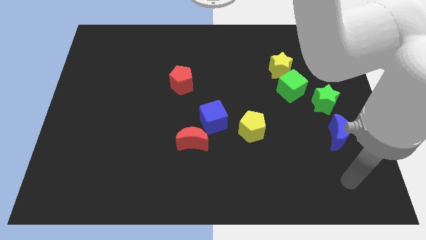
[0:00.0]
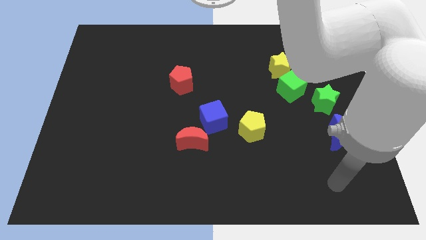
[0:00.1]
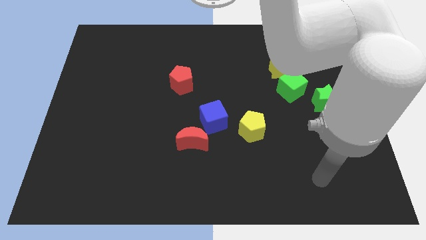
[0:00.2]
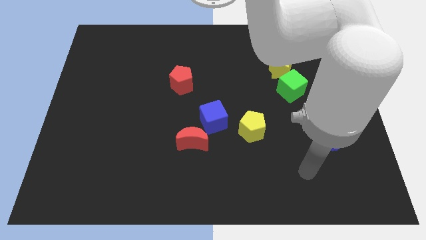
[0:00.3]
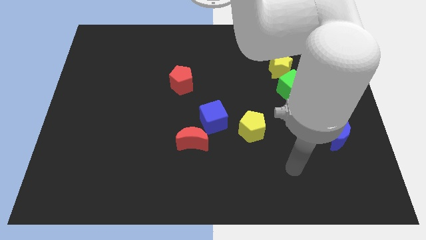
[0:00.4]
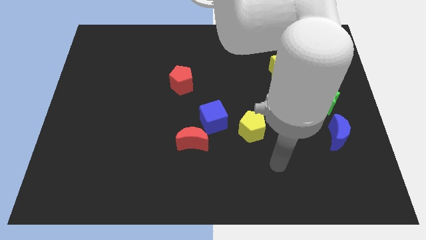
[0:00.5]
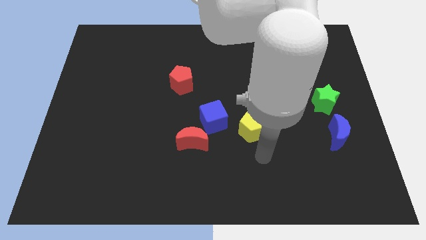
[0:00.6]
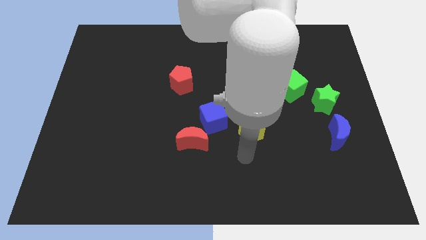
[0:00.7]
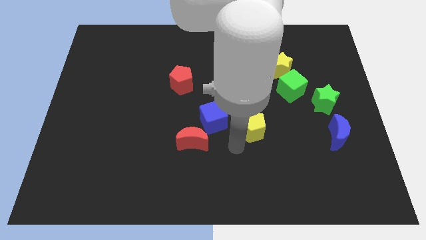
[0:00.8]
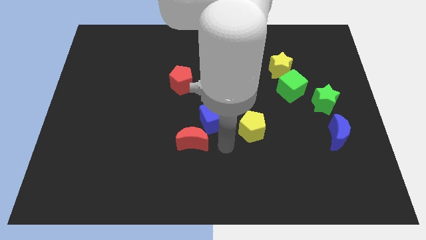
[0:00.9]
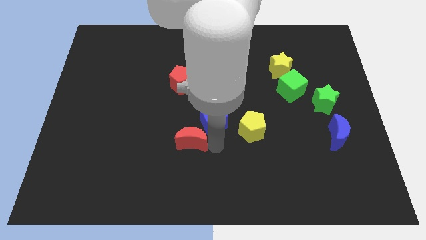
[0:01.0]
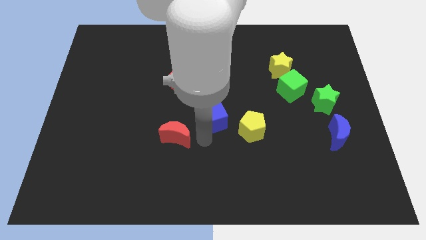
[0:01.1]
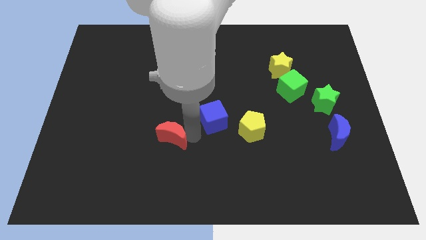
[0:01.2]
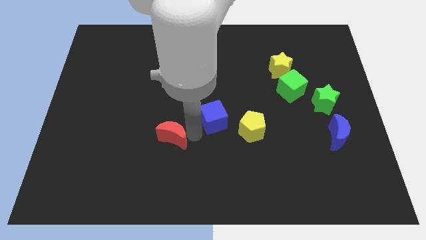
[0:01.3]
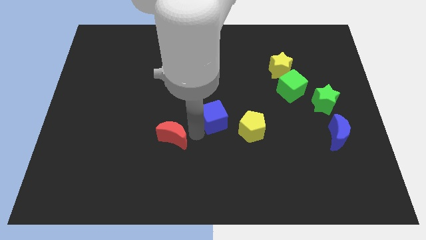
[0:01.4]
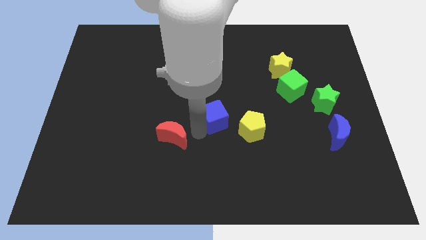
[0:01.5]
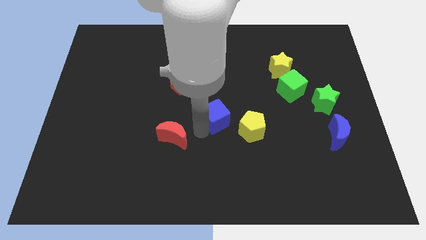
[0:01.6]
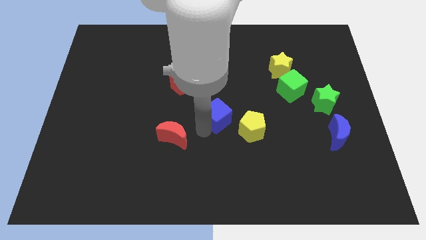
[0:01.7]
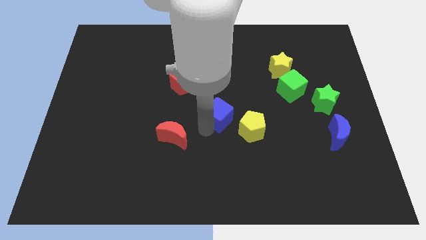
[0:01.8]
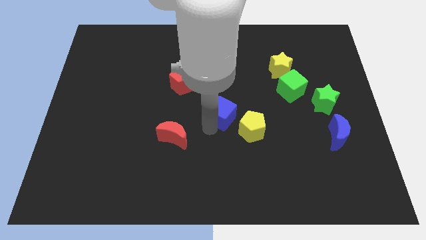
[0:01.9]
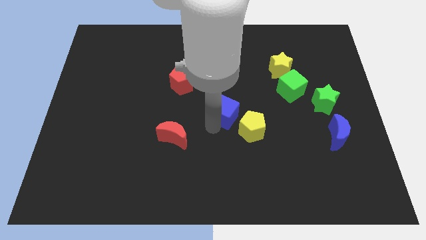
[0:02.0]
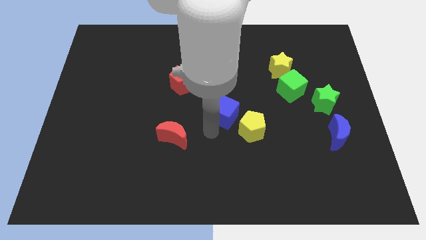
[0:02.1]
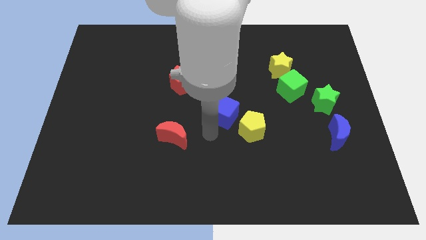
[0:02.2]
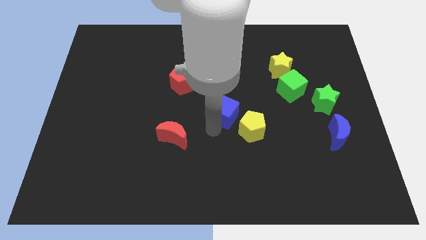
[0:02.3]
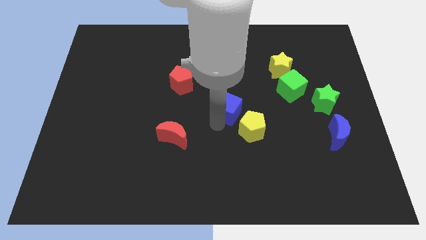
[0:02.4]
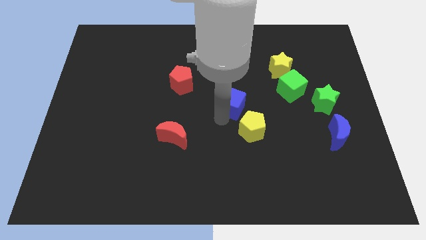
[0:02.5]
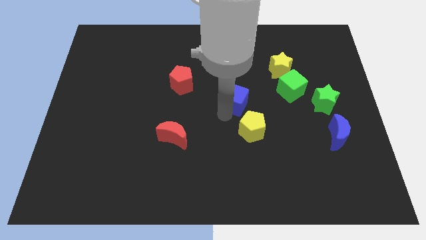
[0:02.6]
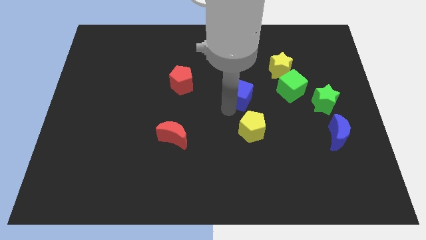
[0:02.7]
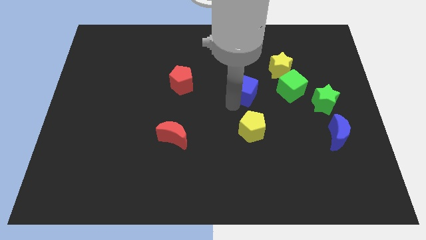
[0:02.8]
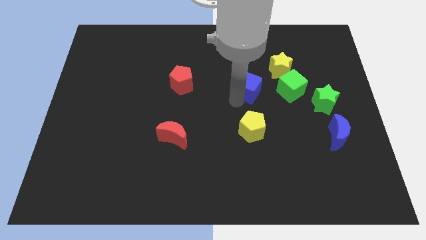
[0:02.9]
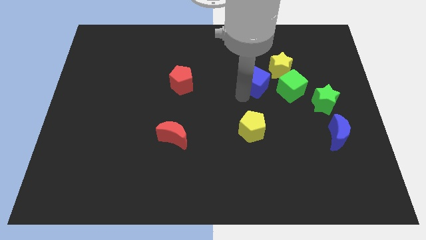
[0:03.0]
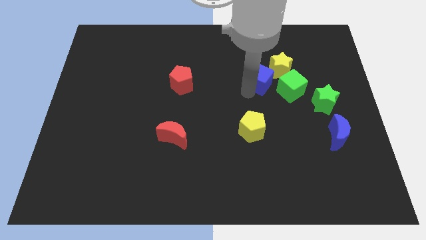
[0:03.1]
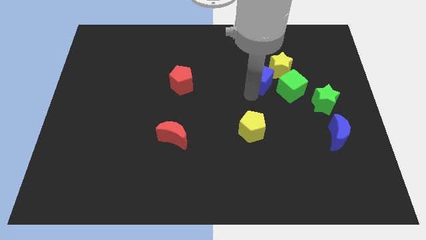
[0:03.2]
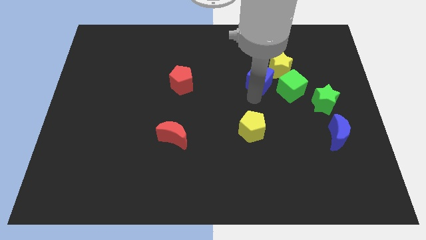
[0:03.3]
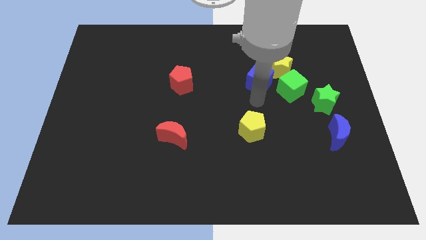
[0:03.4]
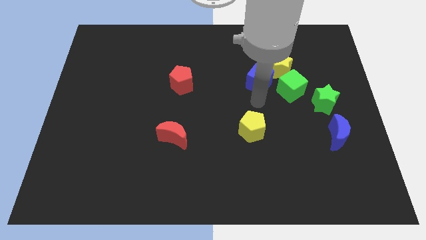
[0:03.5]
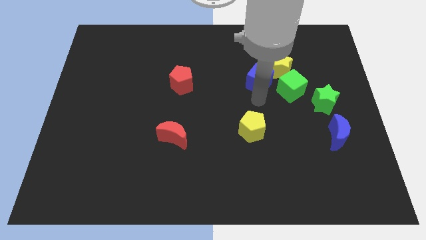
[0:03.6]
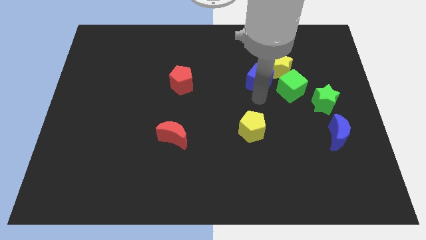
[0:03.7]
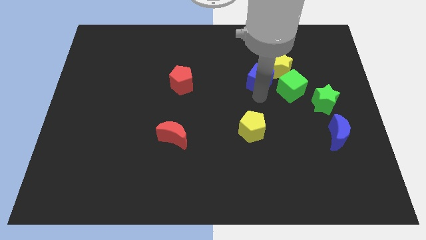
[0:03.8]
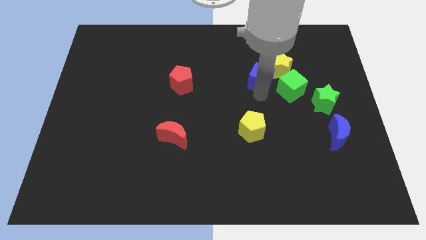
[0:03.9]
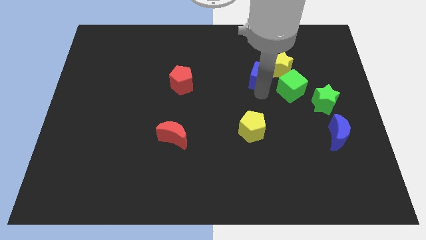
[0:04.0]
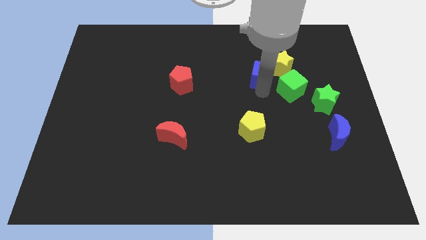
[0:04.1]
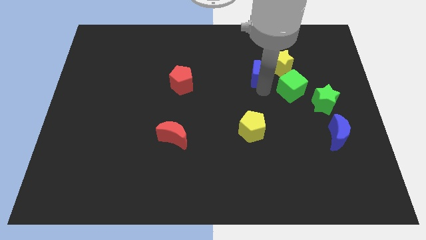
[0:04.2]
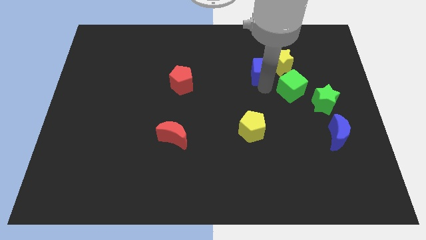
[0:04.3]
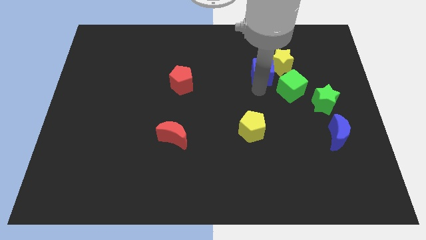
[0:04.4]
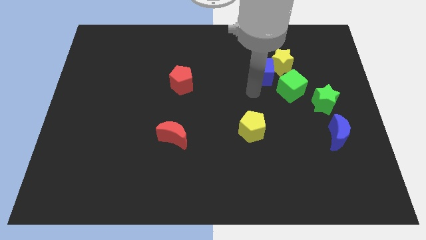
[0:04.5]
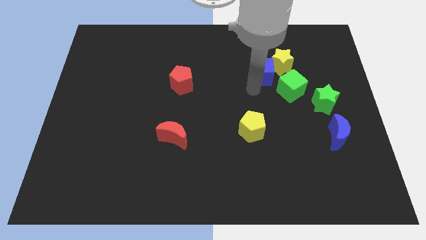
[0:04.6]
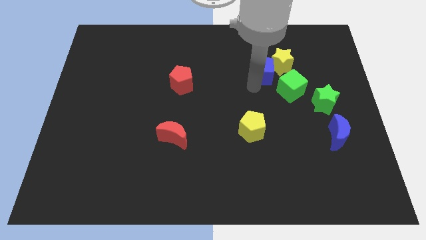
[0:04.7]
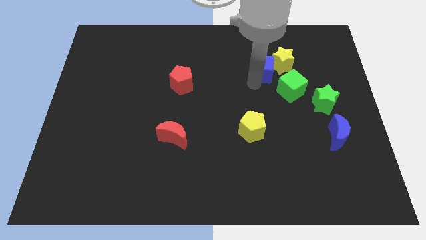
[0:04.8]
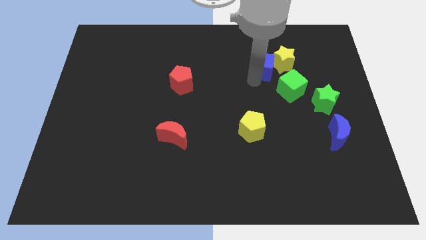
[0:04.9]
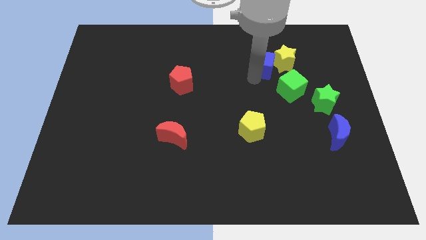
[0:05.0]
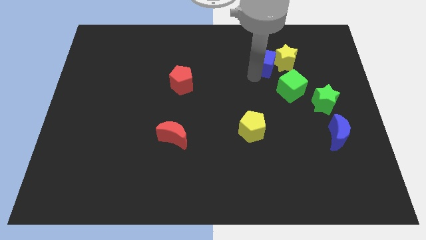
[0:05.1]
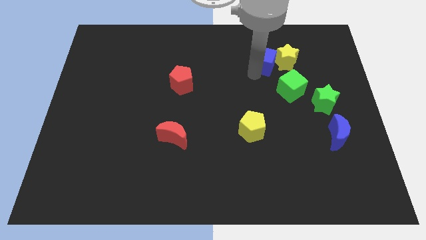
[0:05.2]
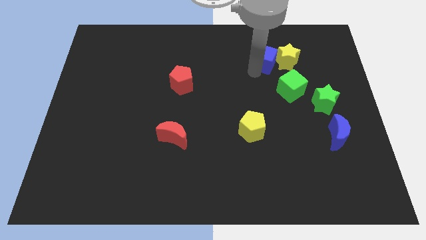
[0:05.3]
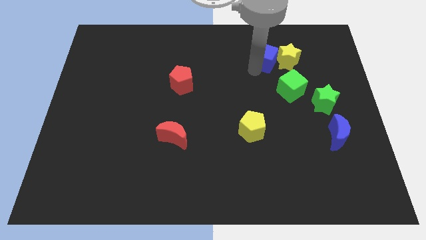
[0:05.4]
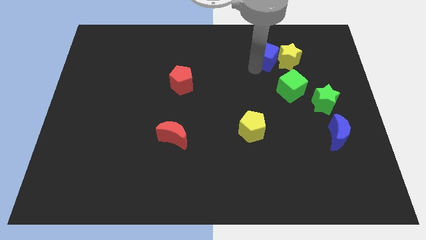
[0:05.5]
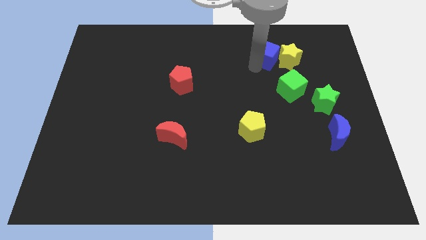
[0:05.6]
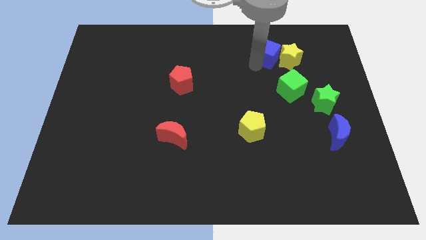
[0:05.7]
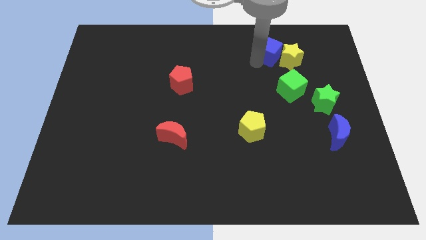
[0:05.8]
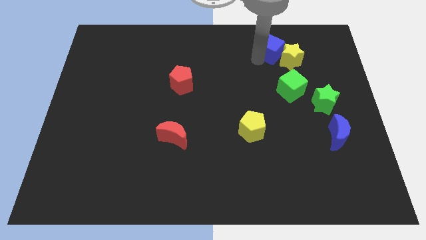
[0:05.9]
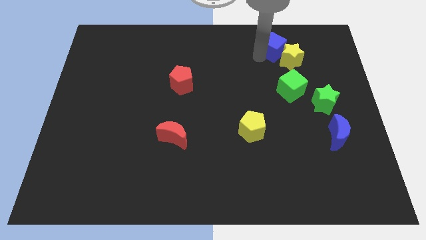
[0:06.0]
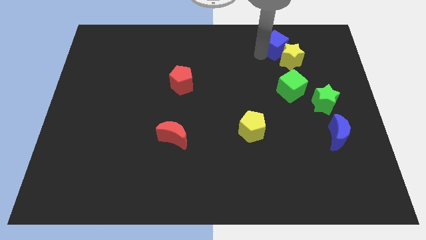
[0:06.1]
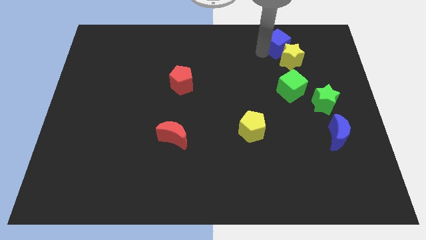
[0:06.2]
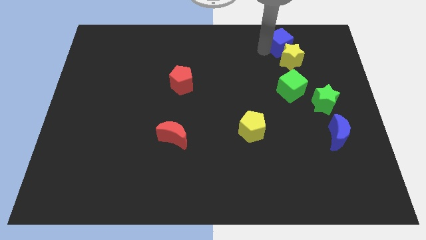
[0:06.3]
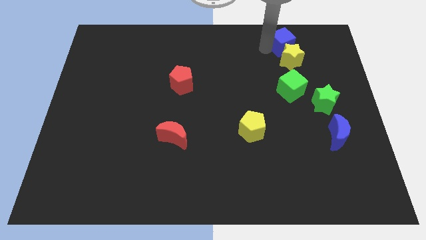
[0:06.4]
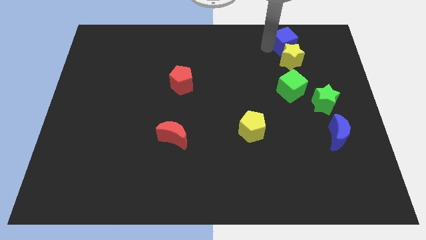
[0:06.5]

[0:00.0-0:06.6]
move the blue cube to the top right of the yellow star

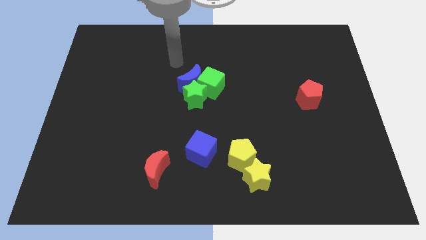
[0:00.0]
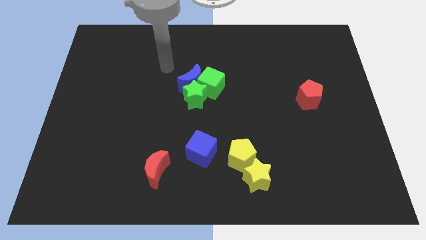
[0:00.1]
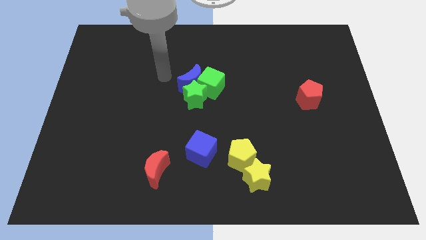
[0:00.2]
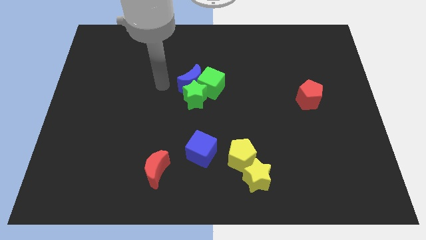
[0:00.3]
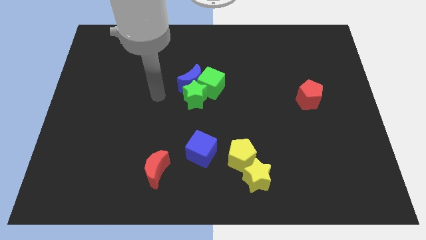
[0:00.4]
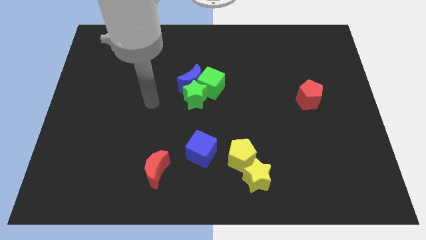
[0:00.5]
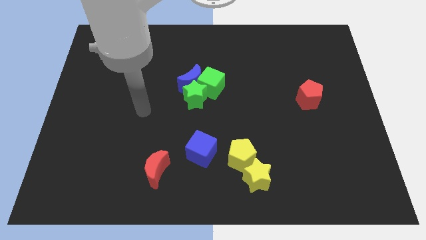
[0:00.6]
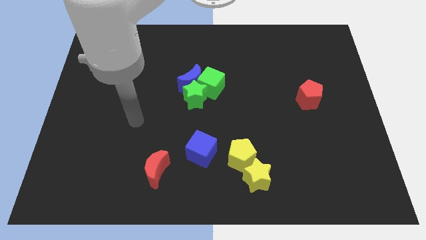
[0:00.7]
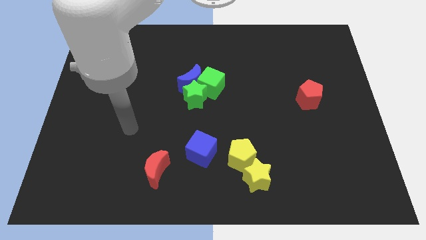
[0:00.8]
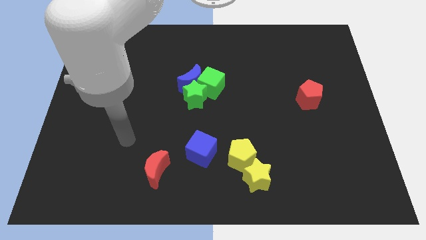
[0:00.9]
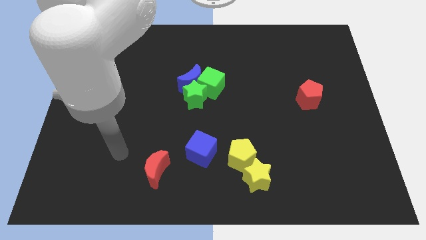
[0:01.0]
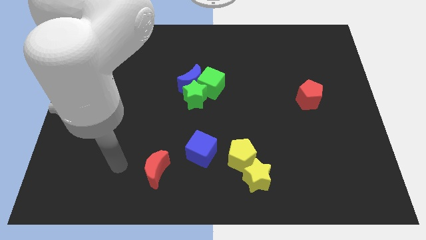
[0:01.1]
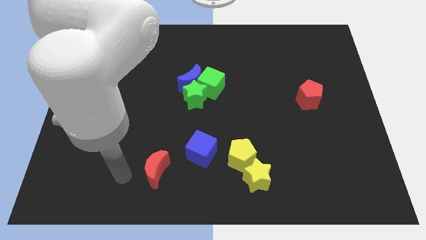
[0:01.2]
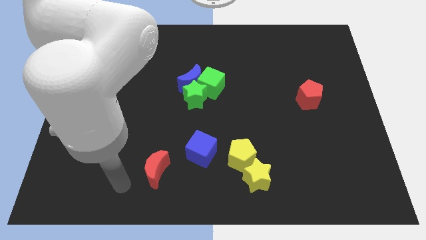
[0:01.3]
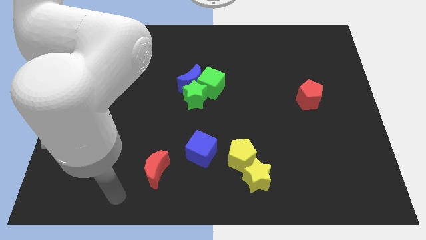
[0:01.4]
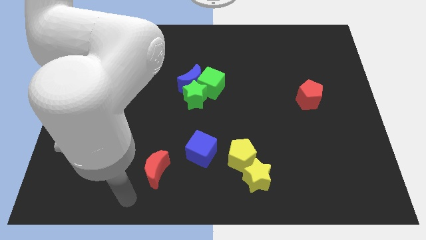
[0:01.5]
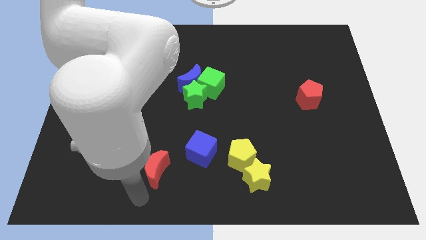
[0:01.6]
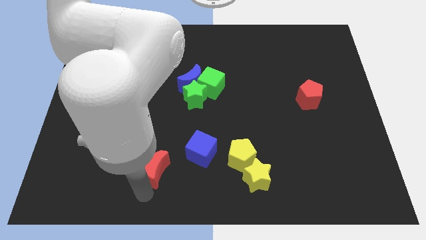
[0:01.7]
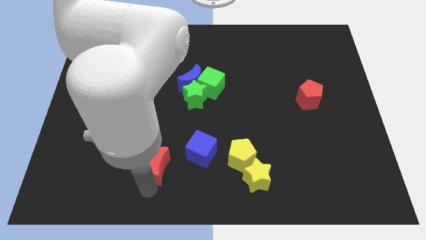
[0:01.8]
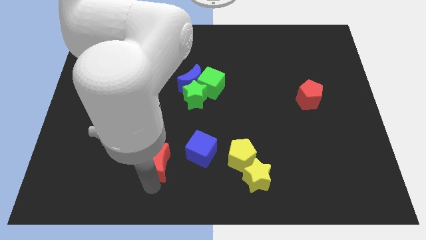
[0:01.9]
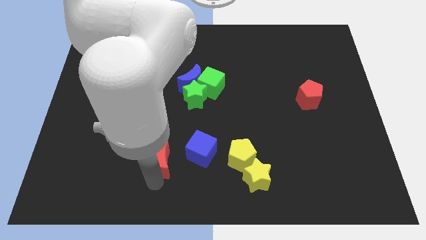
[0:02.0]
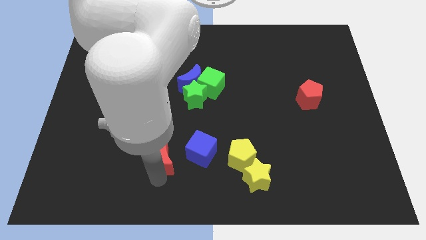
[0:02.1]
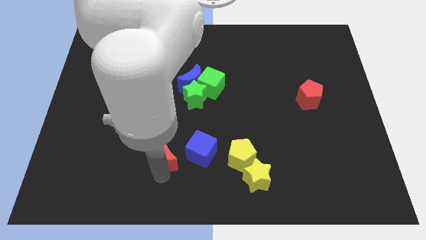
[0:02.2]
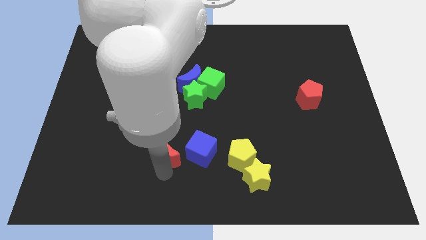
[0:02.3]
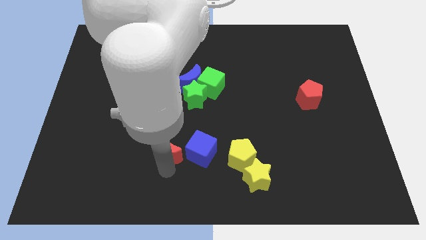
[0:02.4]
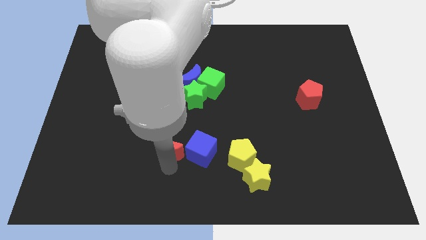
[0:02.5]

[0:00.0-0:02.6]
slide the red moon to the top left of the blue cube
